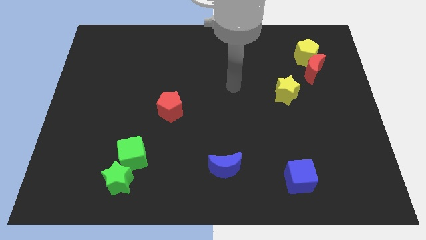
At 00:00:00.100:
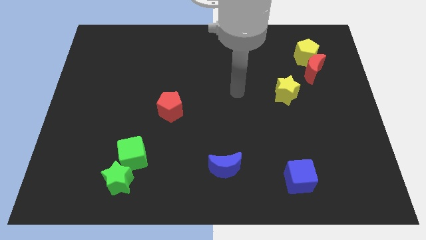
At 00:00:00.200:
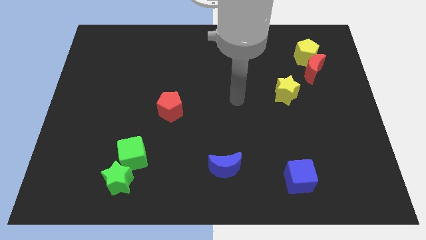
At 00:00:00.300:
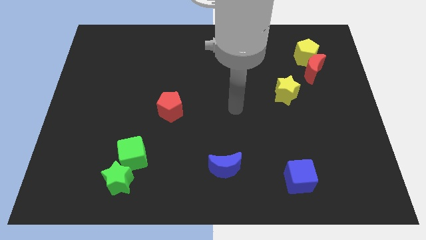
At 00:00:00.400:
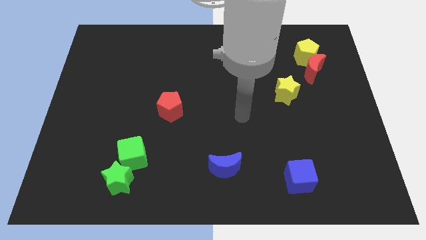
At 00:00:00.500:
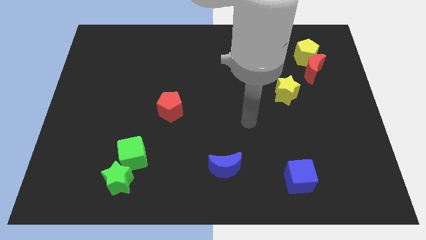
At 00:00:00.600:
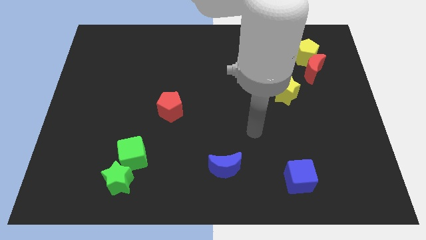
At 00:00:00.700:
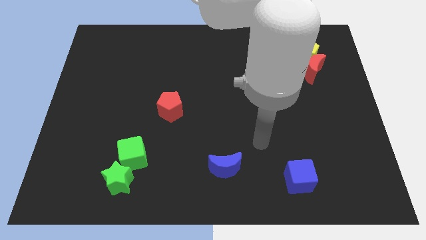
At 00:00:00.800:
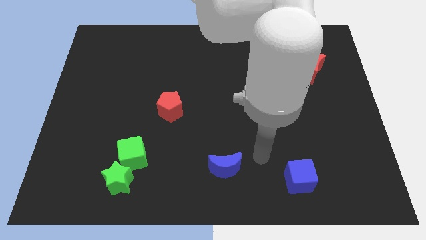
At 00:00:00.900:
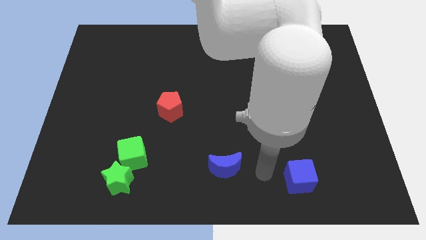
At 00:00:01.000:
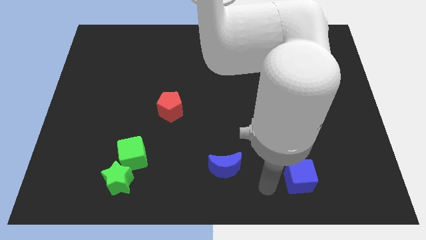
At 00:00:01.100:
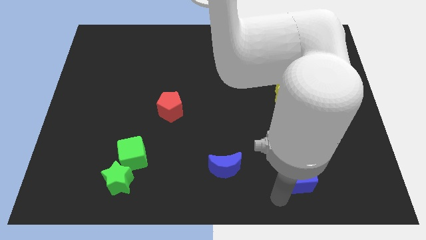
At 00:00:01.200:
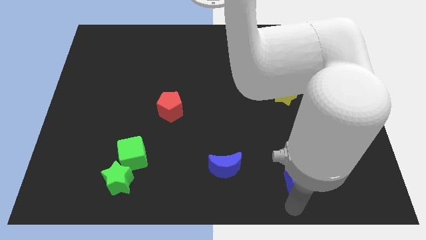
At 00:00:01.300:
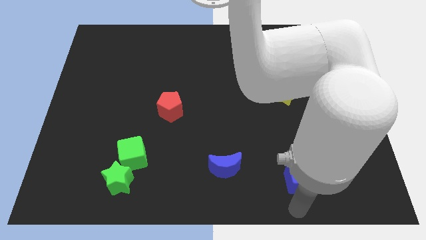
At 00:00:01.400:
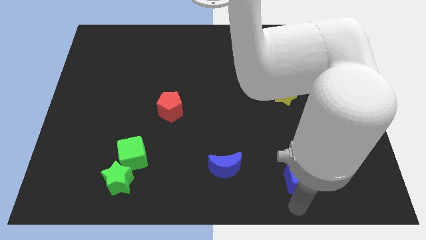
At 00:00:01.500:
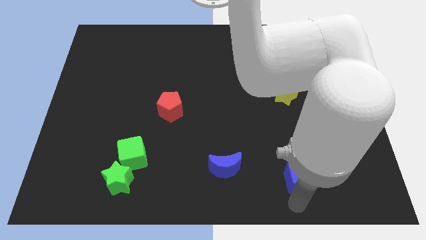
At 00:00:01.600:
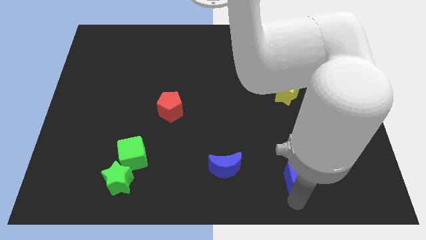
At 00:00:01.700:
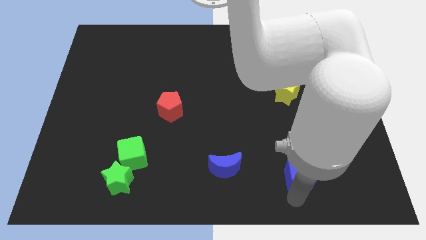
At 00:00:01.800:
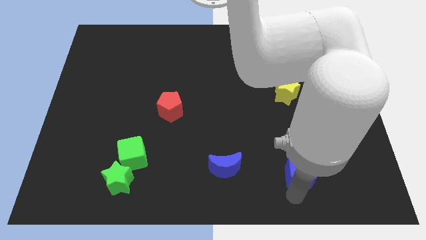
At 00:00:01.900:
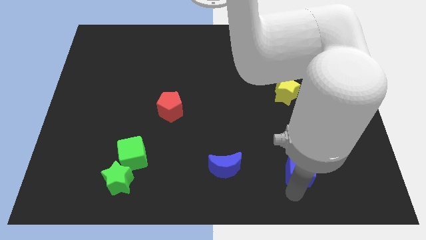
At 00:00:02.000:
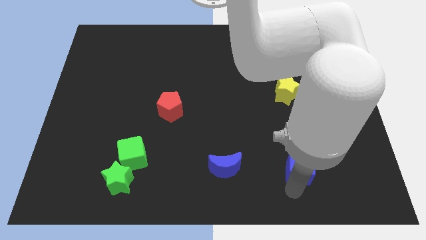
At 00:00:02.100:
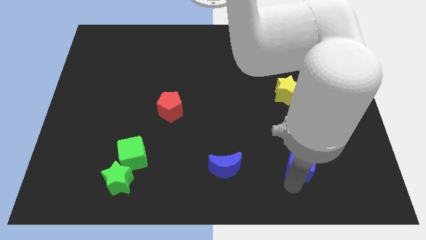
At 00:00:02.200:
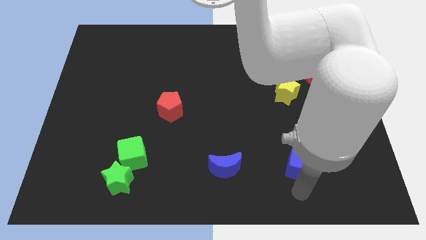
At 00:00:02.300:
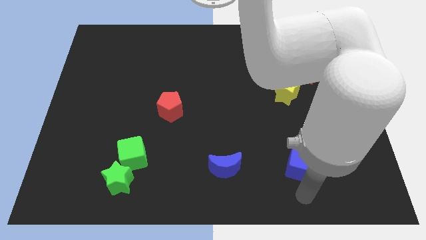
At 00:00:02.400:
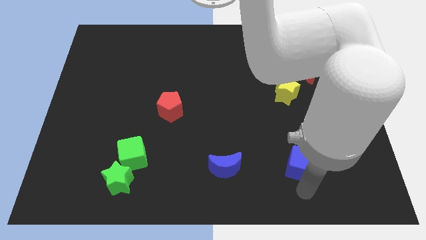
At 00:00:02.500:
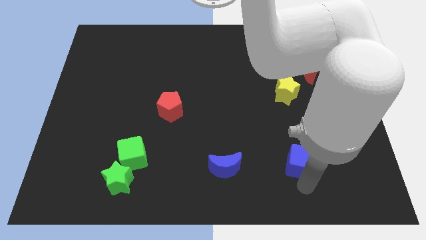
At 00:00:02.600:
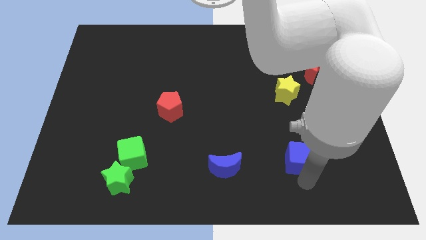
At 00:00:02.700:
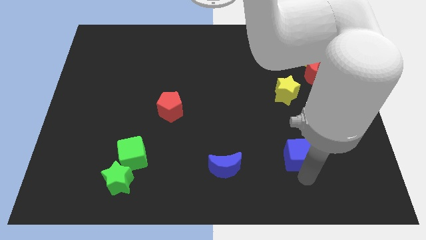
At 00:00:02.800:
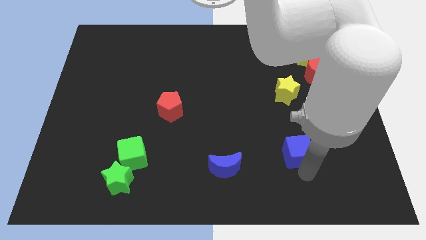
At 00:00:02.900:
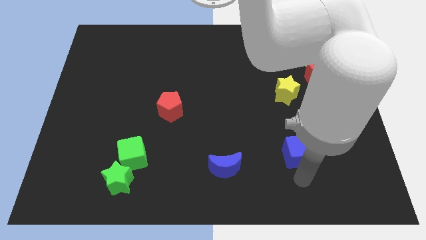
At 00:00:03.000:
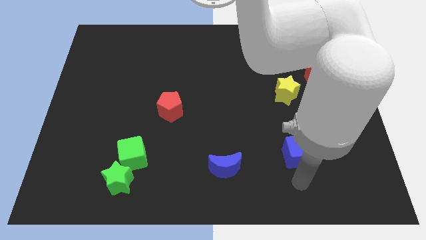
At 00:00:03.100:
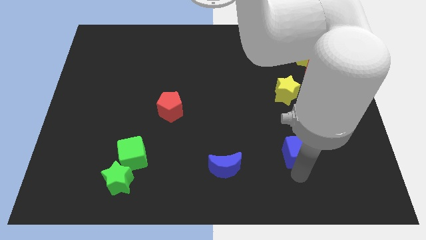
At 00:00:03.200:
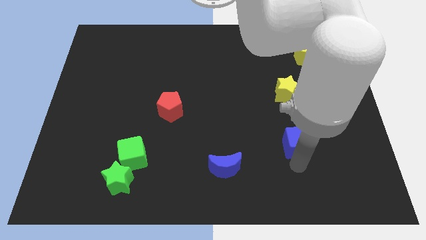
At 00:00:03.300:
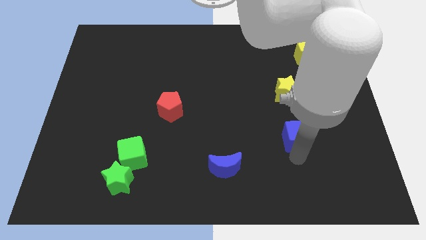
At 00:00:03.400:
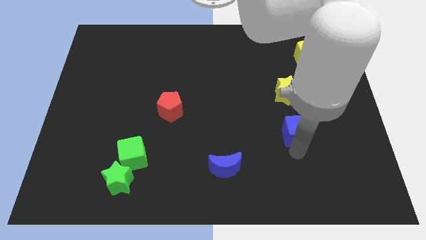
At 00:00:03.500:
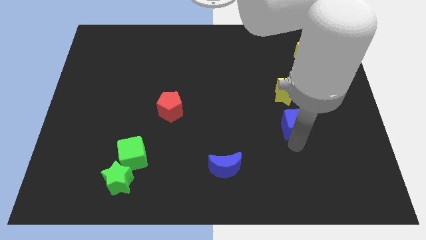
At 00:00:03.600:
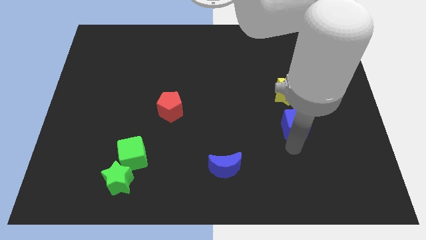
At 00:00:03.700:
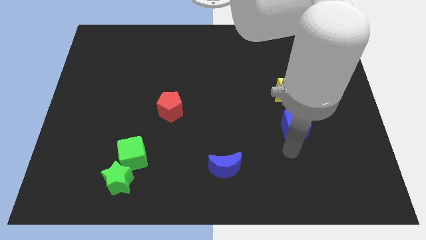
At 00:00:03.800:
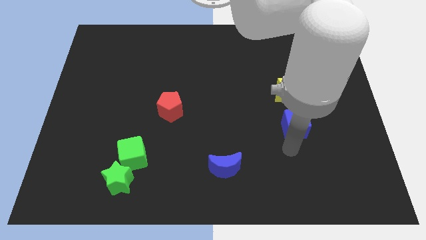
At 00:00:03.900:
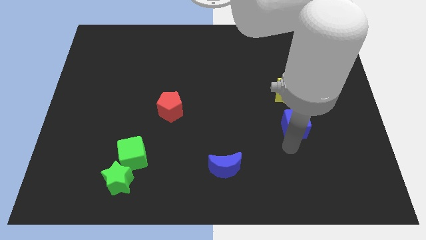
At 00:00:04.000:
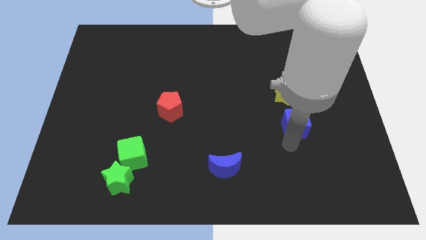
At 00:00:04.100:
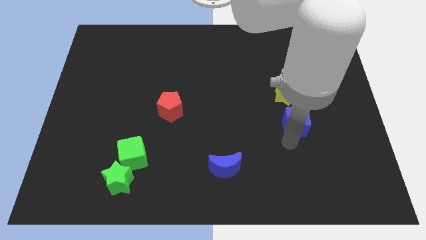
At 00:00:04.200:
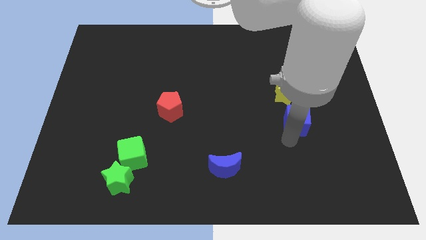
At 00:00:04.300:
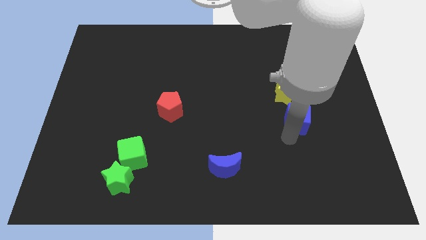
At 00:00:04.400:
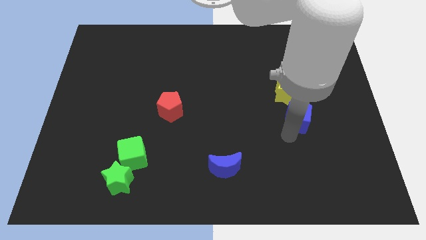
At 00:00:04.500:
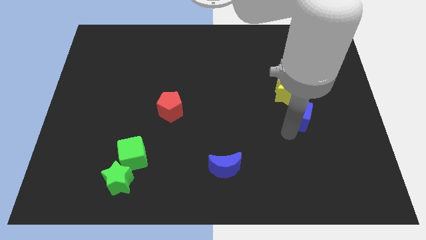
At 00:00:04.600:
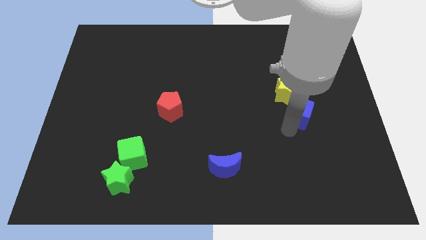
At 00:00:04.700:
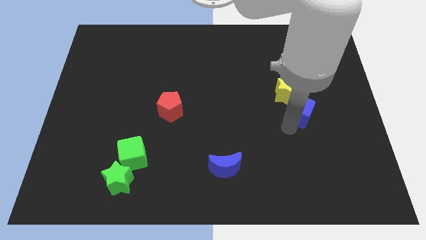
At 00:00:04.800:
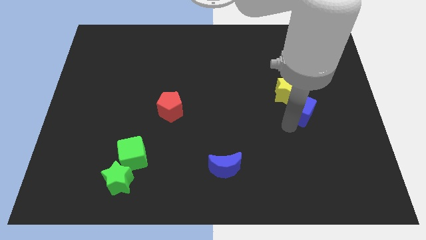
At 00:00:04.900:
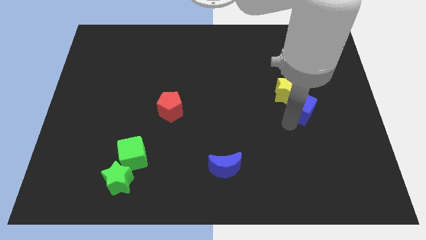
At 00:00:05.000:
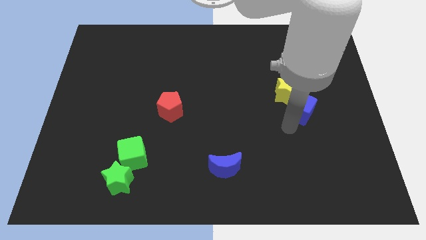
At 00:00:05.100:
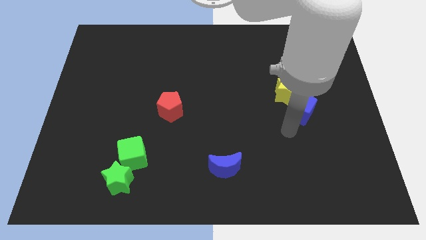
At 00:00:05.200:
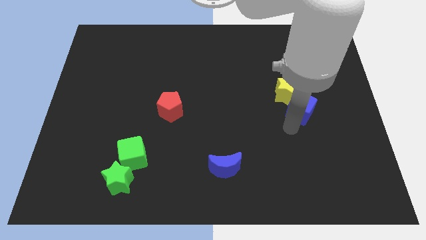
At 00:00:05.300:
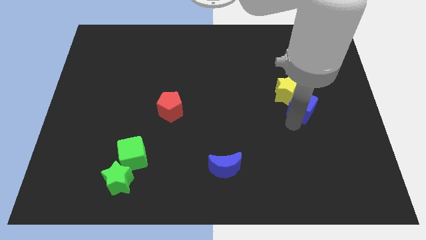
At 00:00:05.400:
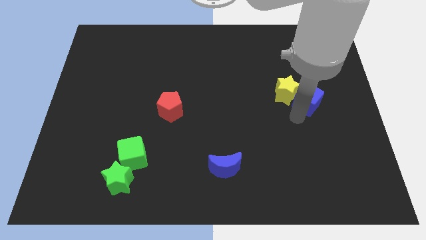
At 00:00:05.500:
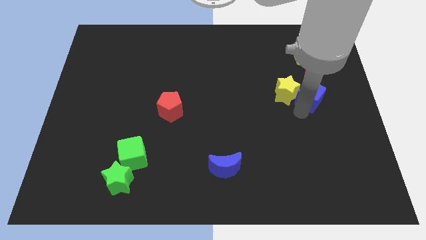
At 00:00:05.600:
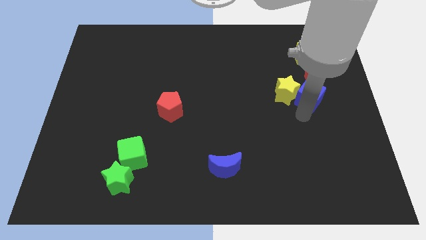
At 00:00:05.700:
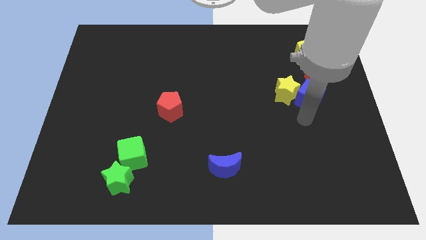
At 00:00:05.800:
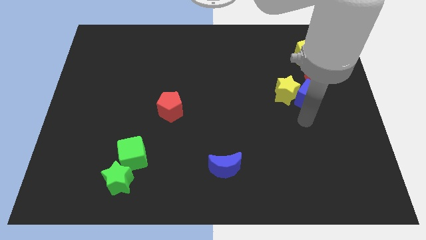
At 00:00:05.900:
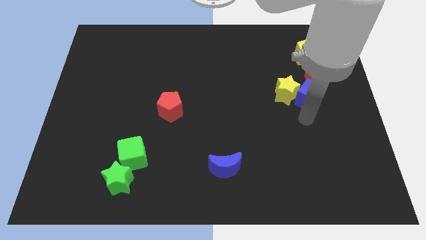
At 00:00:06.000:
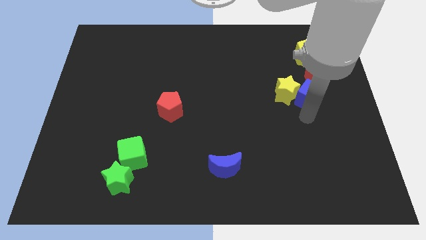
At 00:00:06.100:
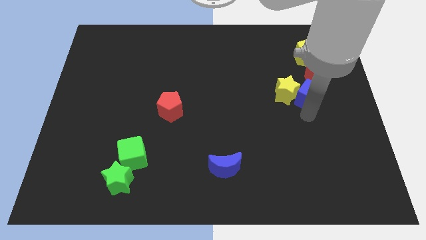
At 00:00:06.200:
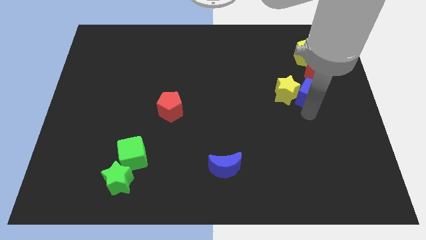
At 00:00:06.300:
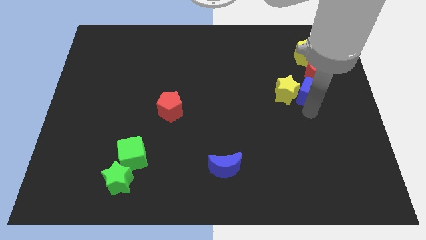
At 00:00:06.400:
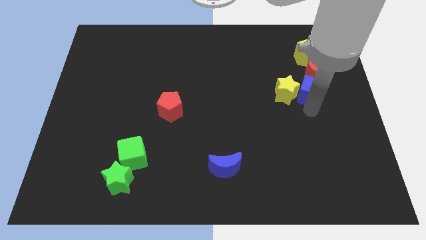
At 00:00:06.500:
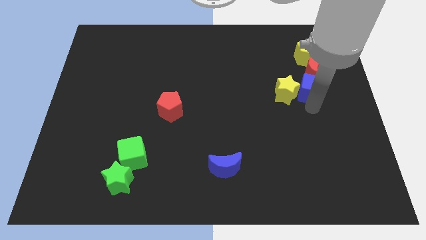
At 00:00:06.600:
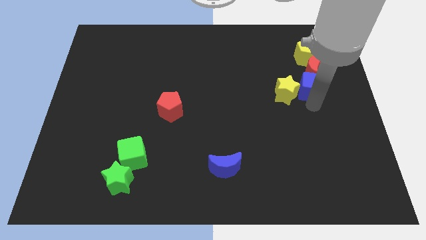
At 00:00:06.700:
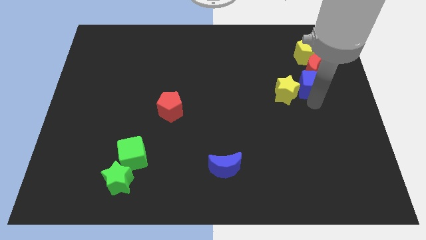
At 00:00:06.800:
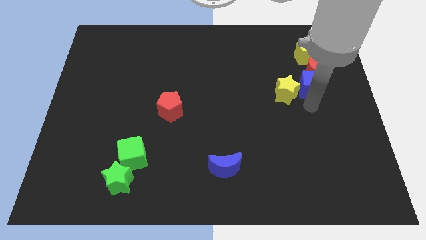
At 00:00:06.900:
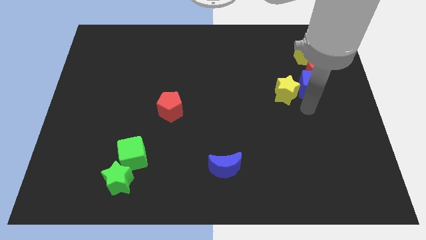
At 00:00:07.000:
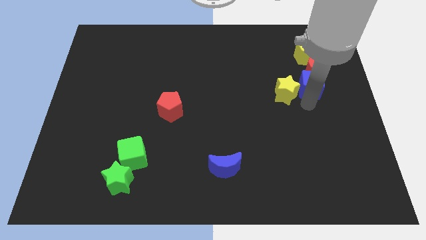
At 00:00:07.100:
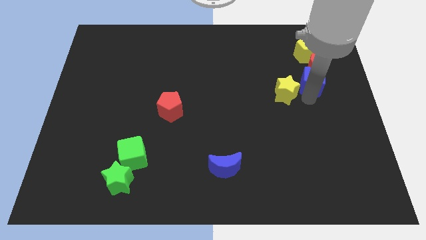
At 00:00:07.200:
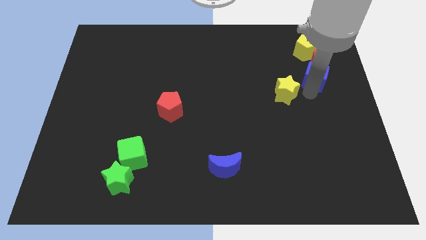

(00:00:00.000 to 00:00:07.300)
put the blue cube to the red moon
